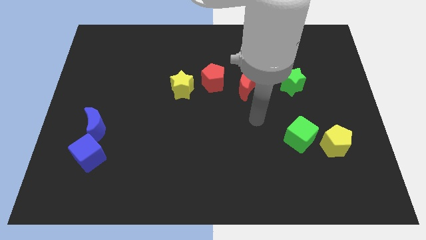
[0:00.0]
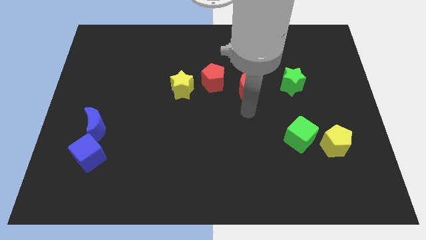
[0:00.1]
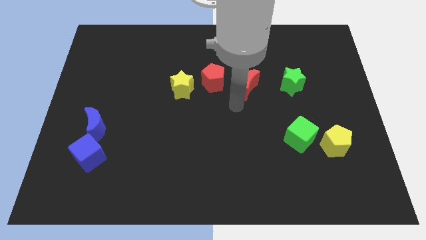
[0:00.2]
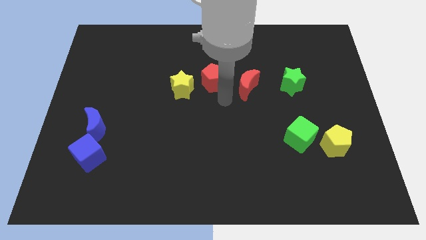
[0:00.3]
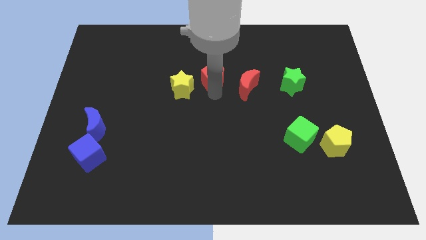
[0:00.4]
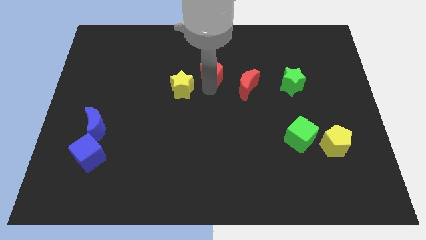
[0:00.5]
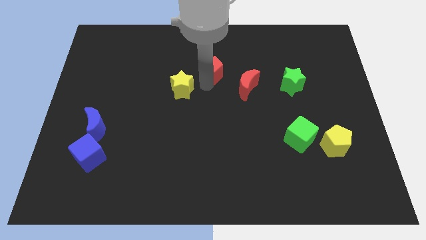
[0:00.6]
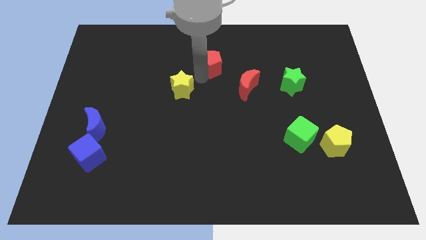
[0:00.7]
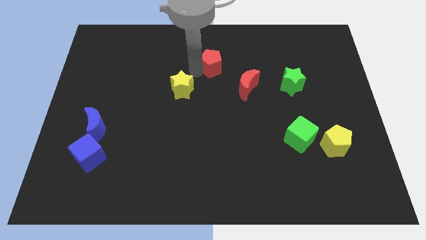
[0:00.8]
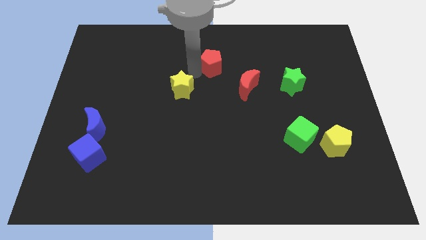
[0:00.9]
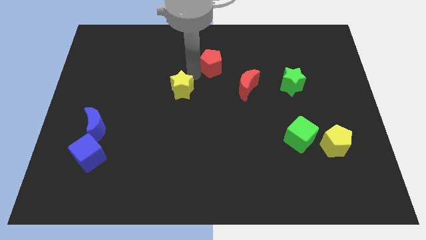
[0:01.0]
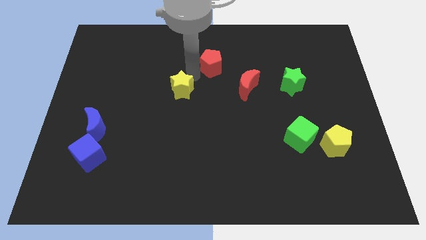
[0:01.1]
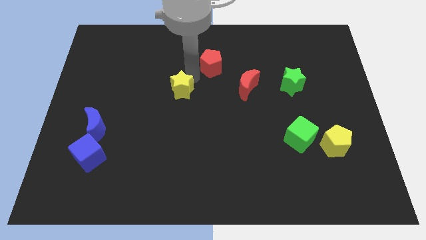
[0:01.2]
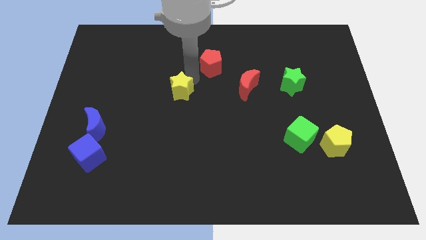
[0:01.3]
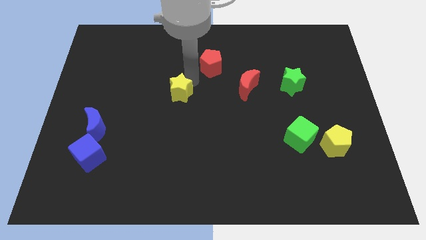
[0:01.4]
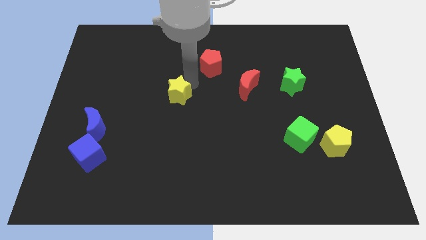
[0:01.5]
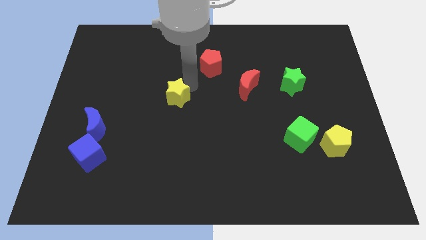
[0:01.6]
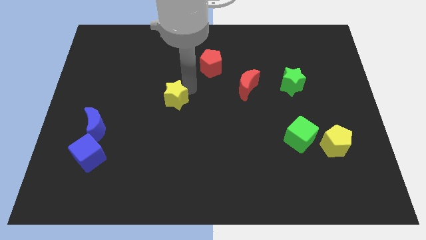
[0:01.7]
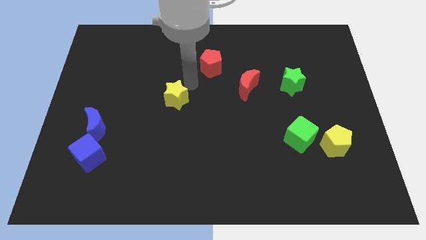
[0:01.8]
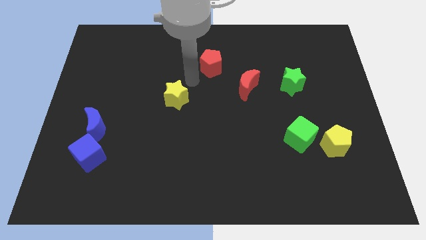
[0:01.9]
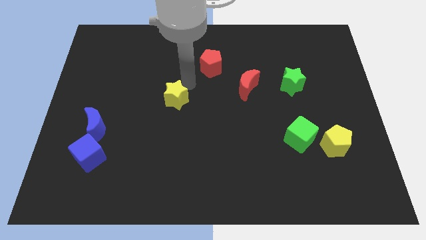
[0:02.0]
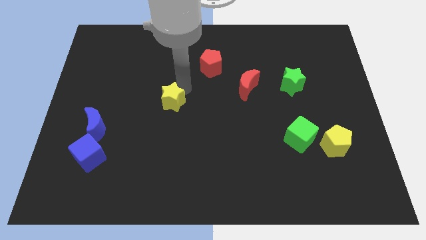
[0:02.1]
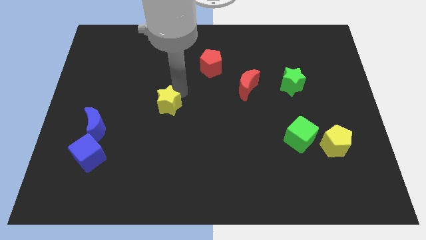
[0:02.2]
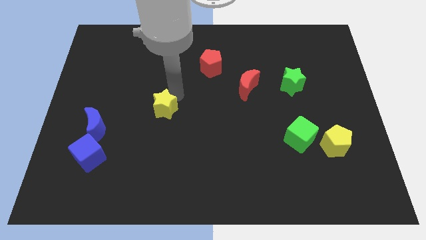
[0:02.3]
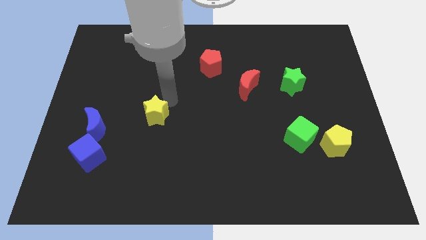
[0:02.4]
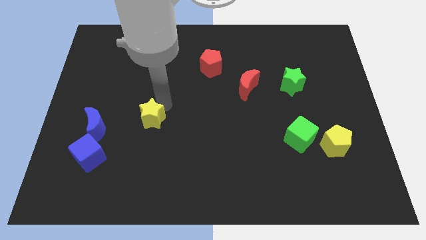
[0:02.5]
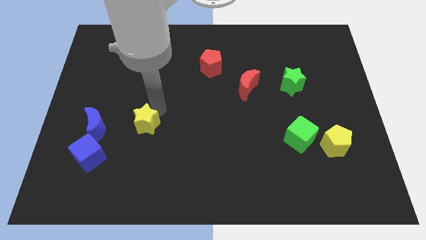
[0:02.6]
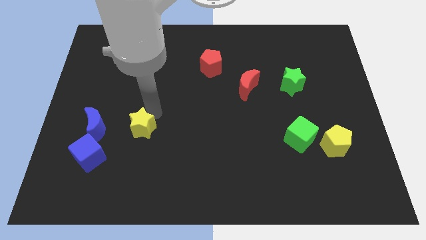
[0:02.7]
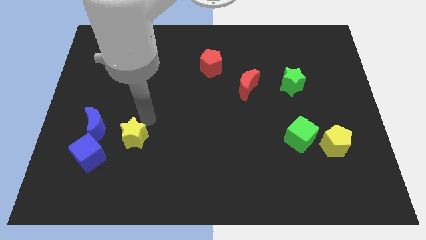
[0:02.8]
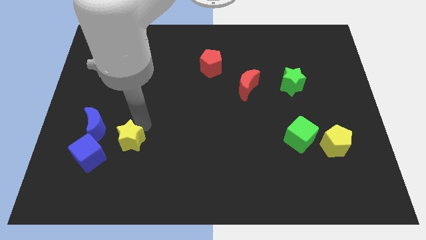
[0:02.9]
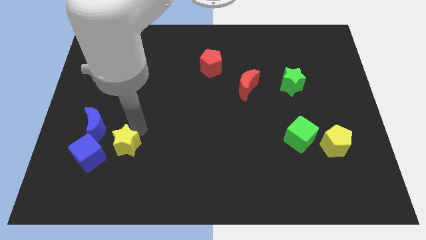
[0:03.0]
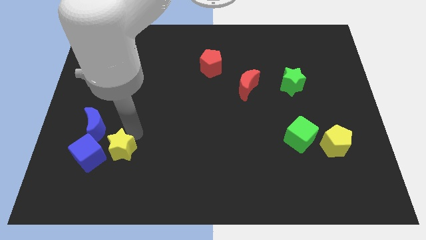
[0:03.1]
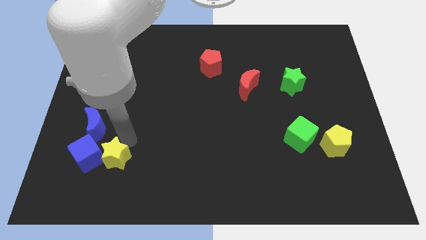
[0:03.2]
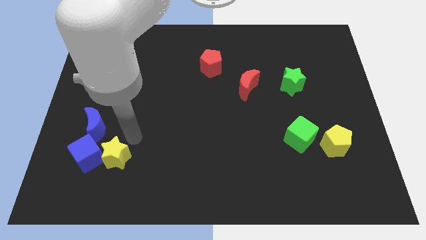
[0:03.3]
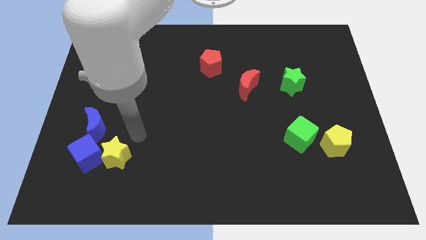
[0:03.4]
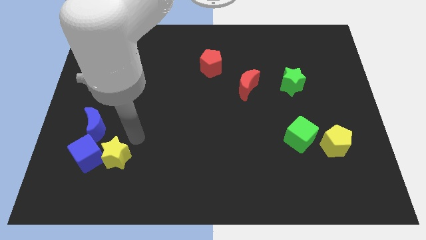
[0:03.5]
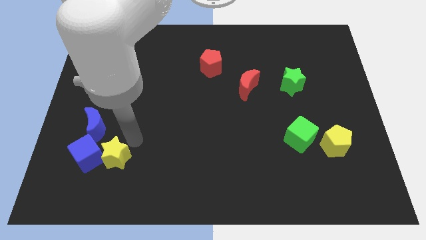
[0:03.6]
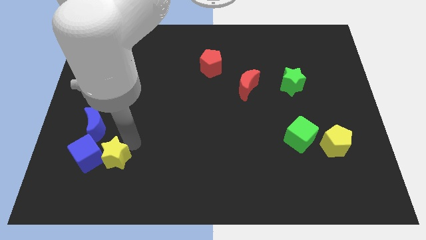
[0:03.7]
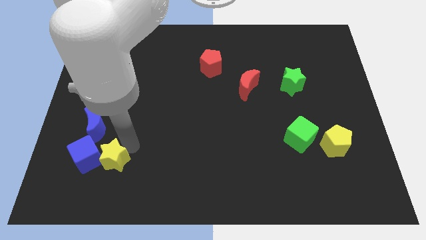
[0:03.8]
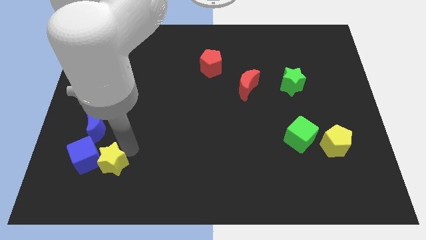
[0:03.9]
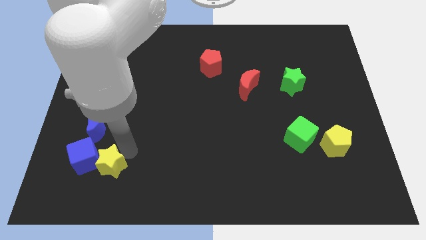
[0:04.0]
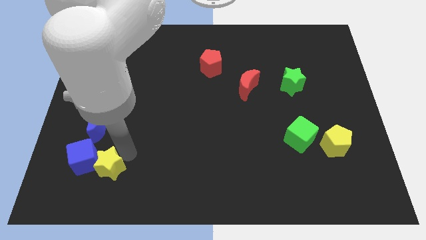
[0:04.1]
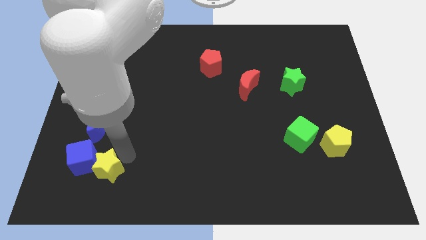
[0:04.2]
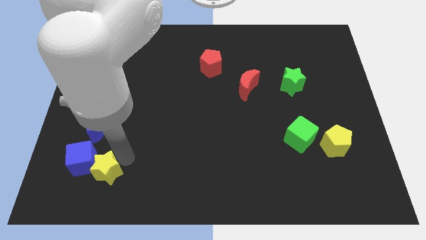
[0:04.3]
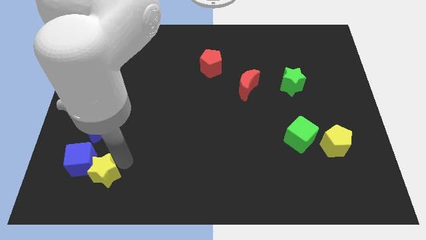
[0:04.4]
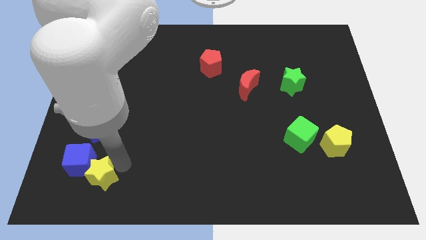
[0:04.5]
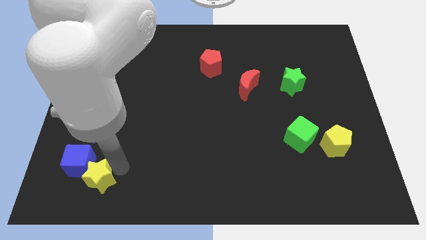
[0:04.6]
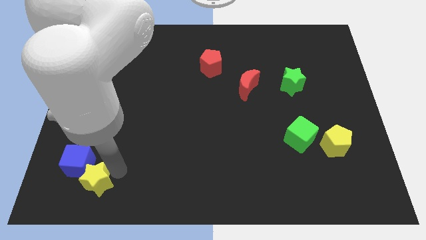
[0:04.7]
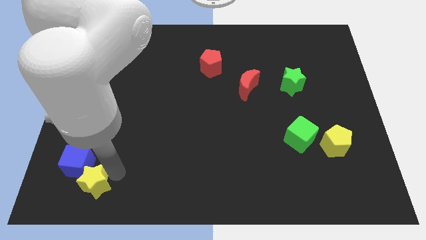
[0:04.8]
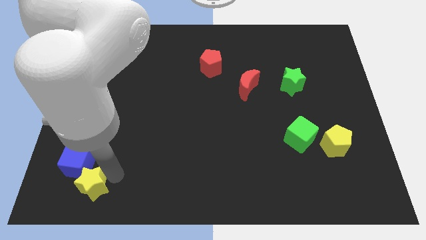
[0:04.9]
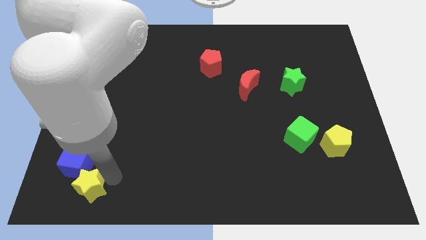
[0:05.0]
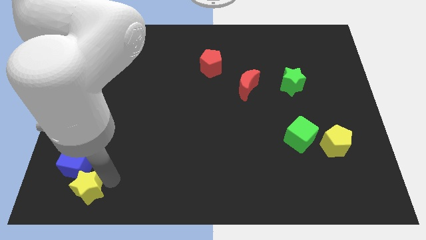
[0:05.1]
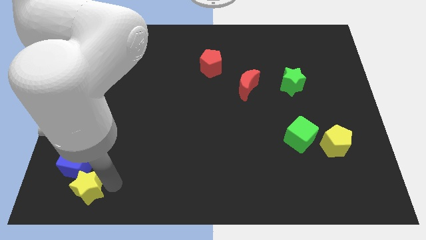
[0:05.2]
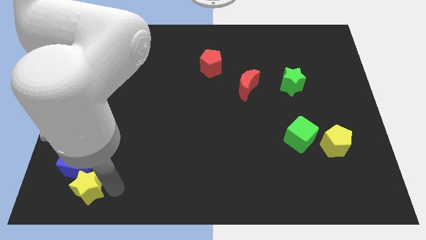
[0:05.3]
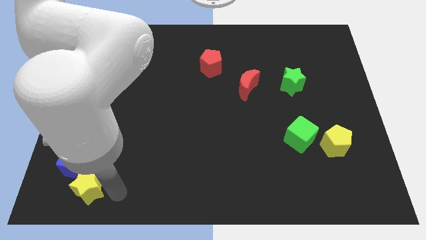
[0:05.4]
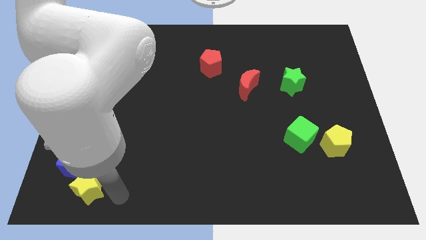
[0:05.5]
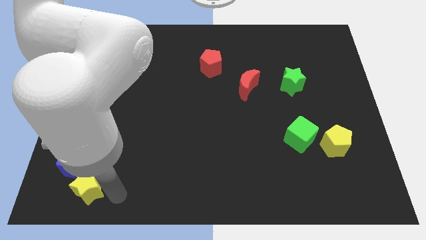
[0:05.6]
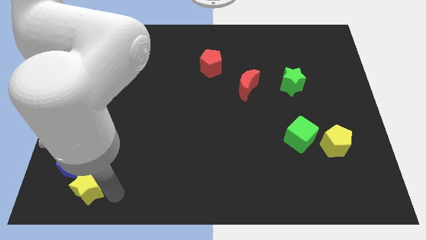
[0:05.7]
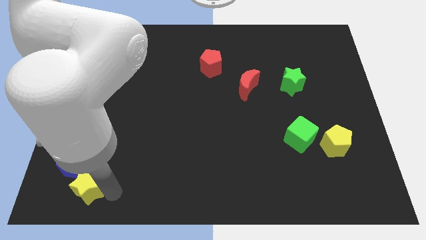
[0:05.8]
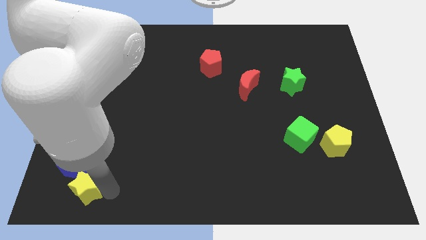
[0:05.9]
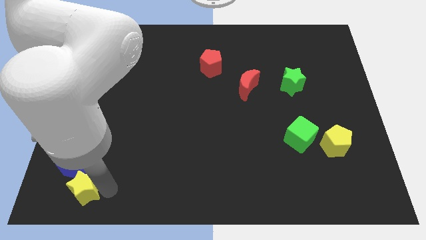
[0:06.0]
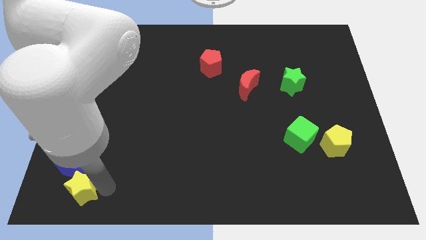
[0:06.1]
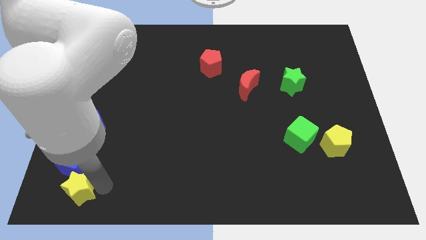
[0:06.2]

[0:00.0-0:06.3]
push the yellow star to the bottom left corner

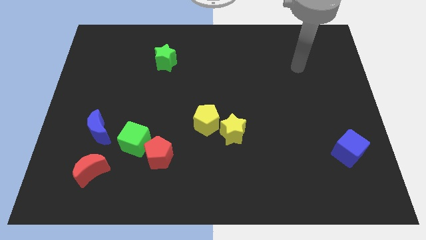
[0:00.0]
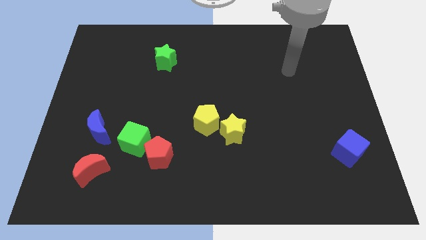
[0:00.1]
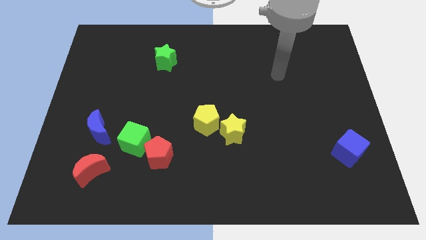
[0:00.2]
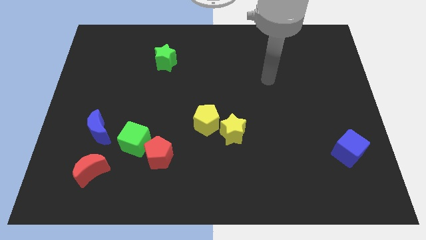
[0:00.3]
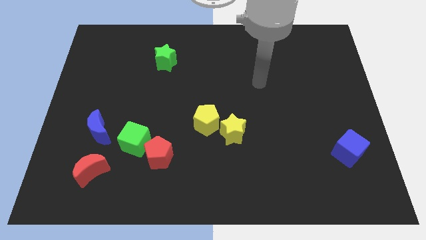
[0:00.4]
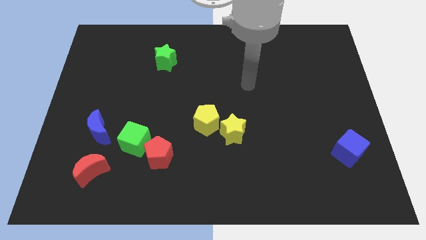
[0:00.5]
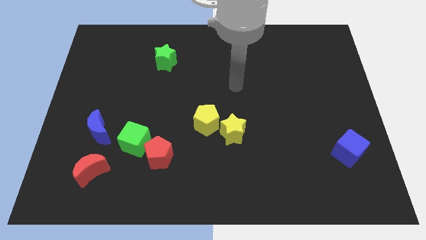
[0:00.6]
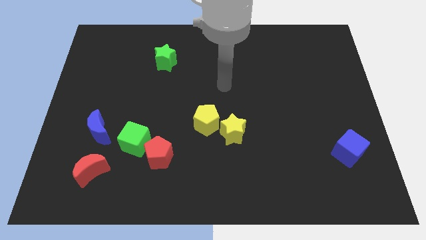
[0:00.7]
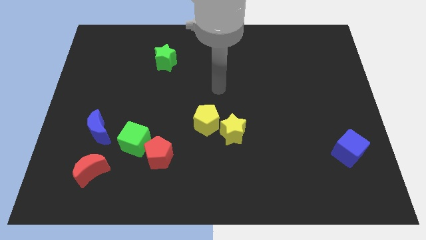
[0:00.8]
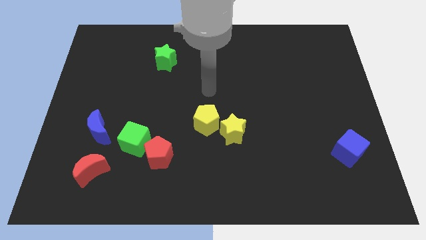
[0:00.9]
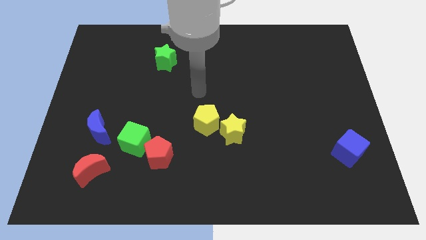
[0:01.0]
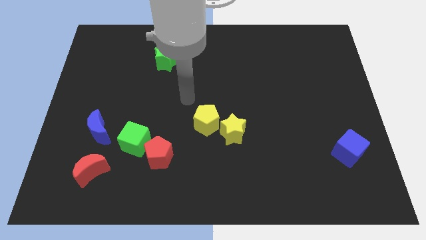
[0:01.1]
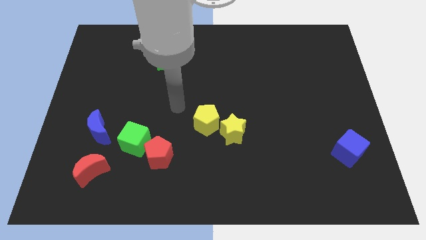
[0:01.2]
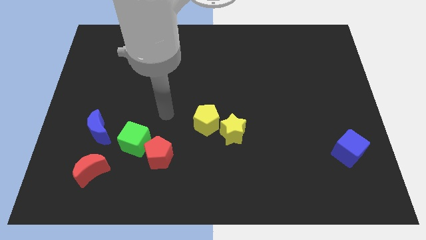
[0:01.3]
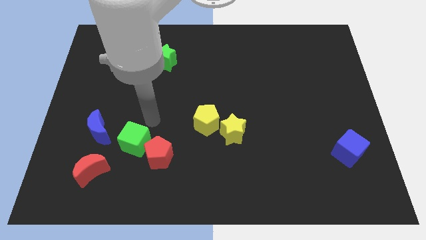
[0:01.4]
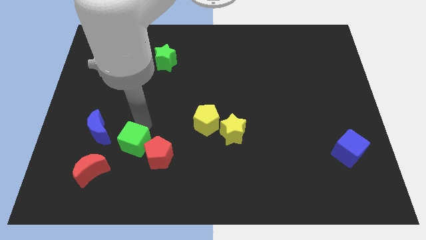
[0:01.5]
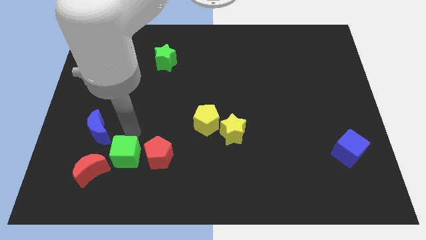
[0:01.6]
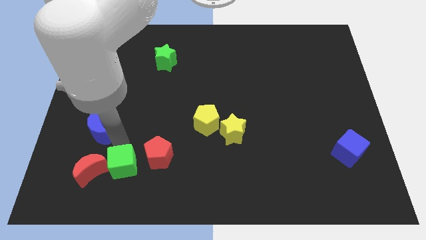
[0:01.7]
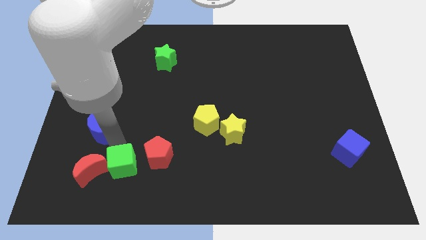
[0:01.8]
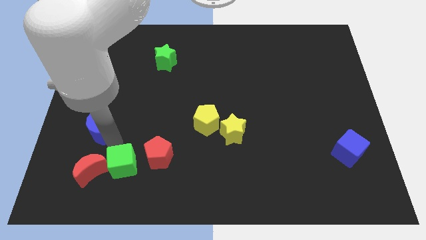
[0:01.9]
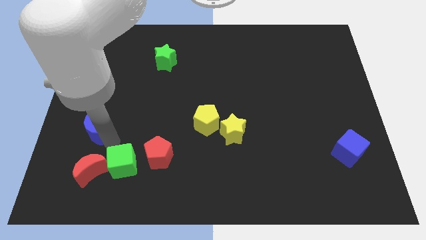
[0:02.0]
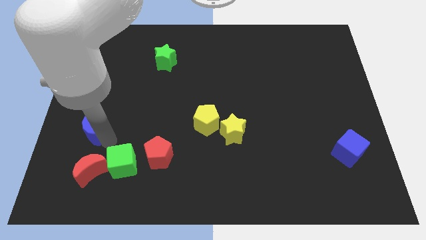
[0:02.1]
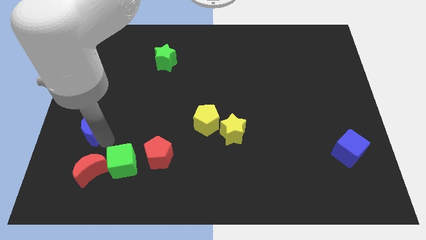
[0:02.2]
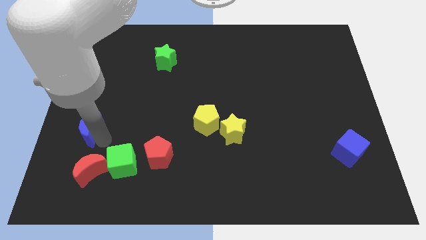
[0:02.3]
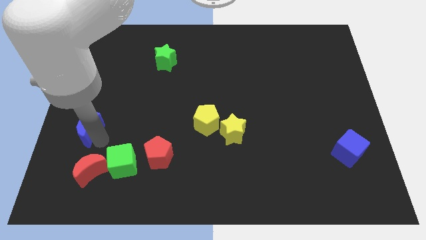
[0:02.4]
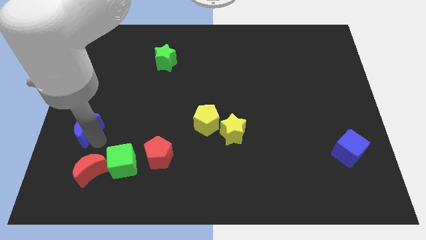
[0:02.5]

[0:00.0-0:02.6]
slide the blue moon to the left side of the board
